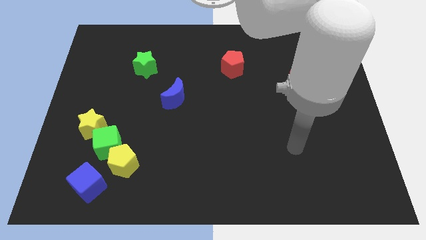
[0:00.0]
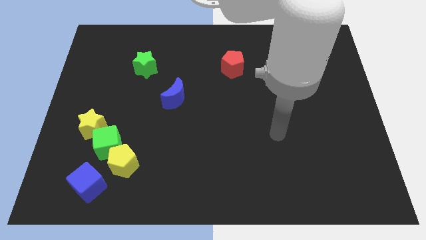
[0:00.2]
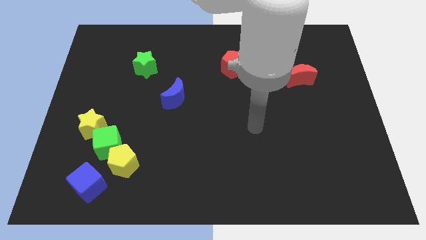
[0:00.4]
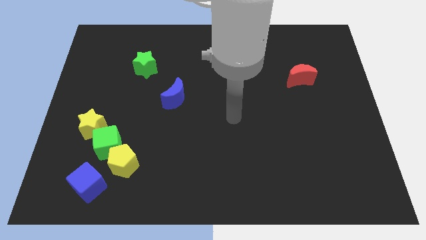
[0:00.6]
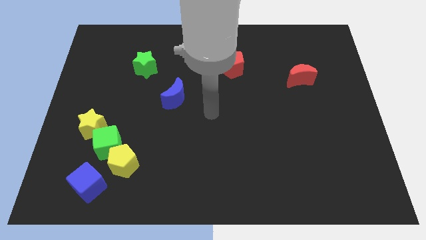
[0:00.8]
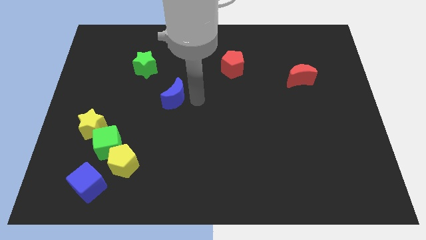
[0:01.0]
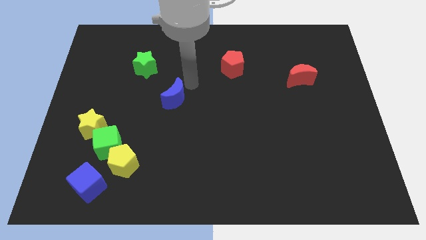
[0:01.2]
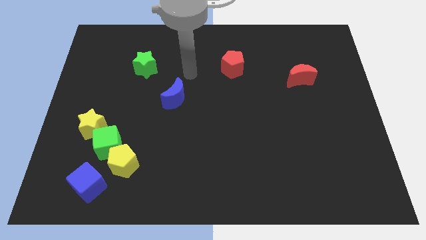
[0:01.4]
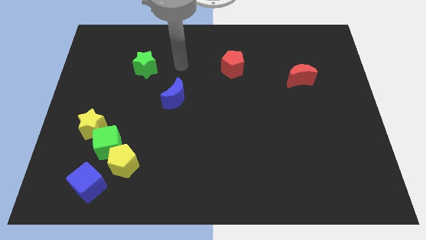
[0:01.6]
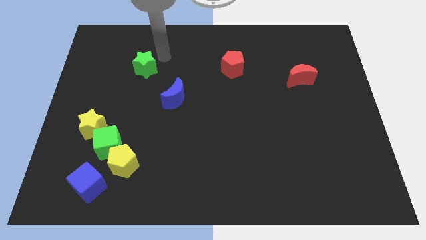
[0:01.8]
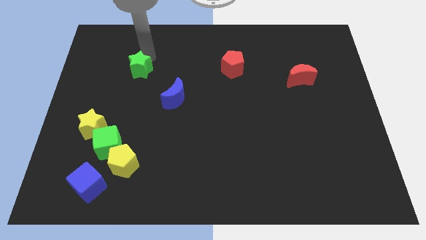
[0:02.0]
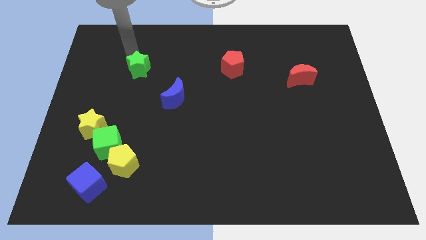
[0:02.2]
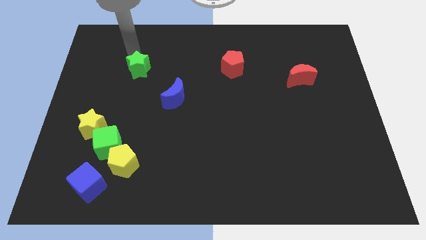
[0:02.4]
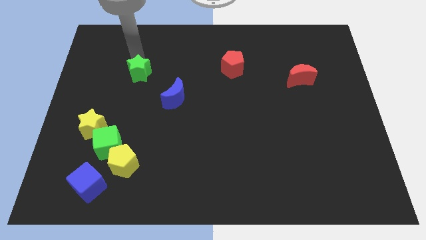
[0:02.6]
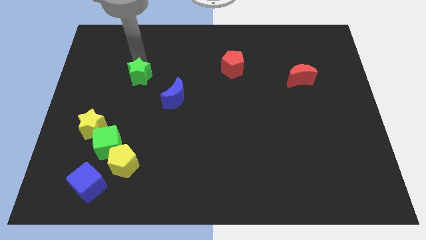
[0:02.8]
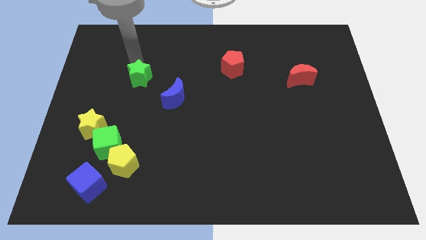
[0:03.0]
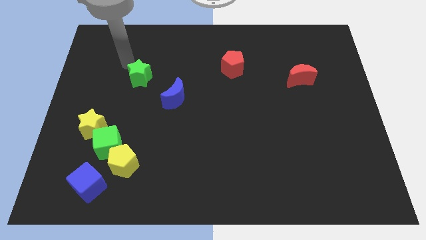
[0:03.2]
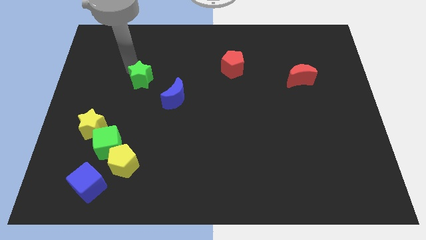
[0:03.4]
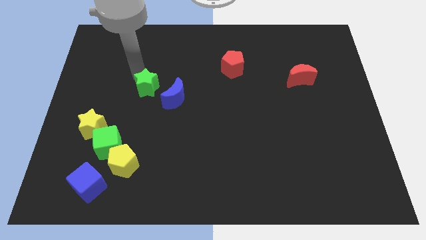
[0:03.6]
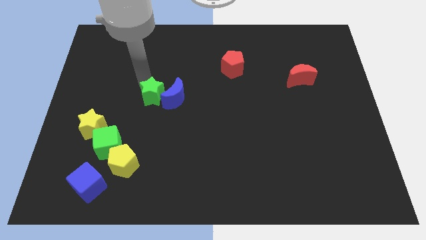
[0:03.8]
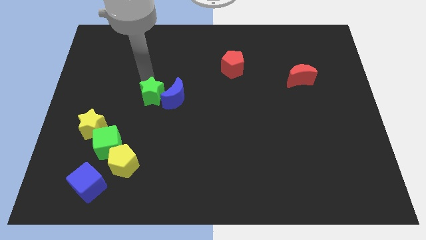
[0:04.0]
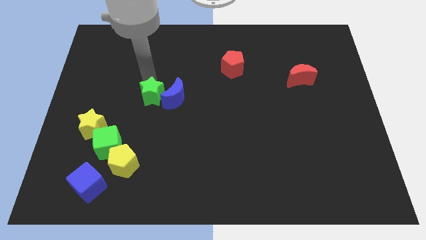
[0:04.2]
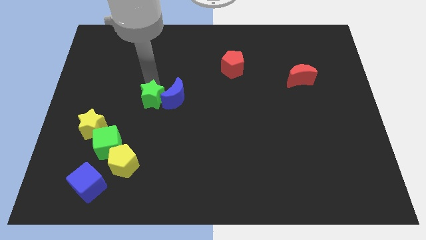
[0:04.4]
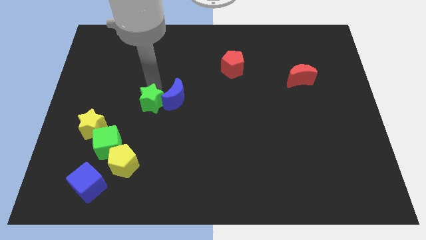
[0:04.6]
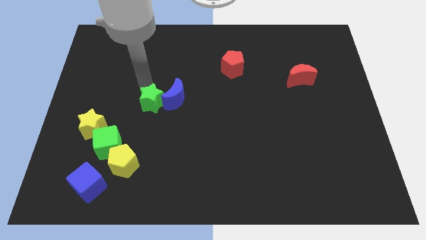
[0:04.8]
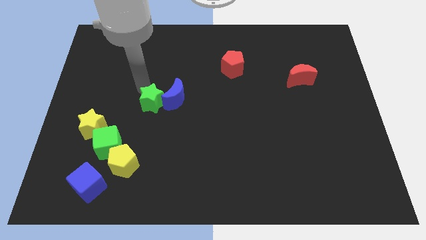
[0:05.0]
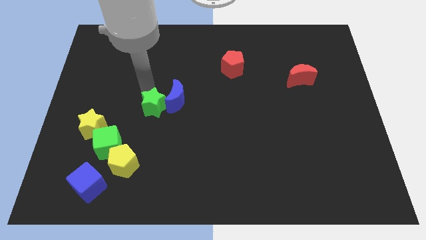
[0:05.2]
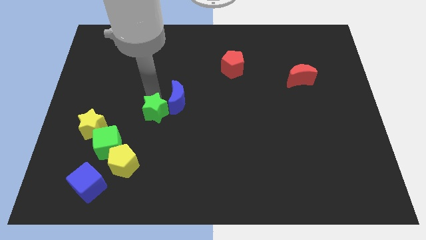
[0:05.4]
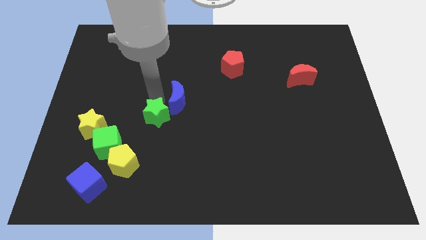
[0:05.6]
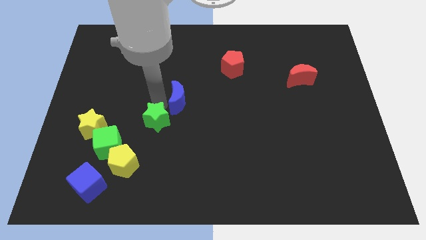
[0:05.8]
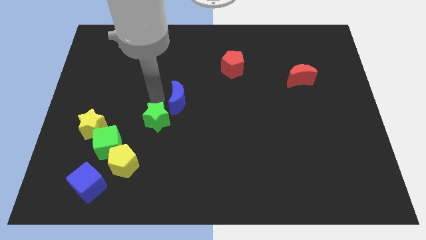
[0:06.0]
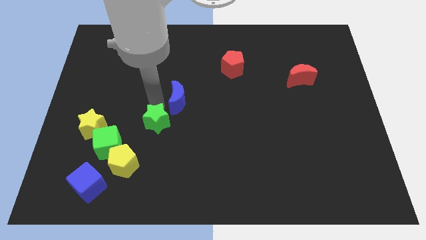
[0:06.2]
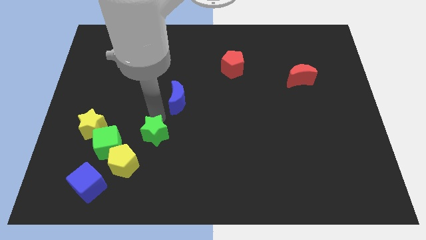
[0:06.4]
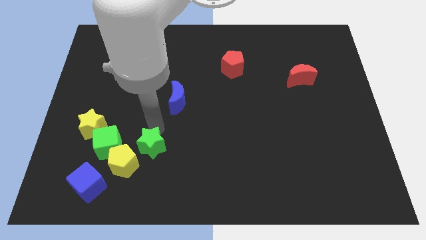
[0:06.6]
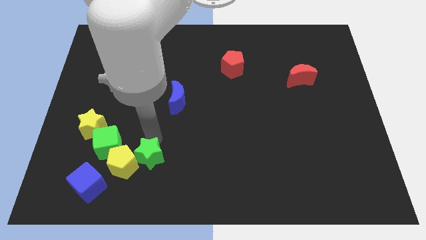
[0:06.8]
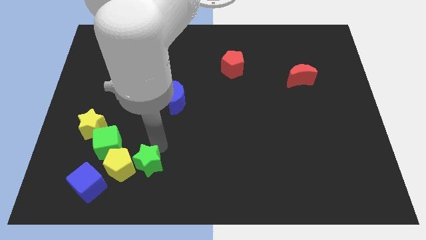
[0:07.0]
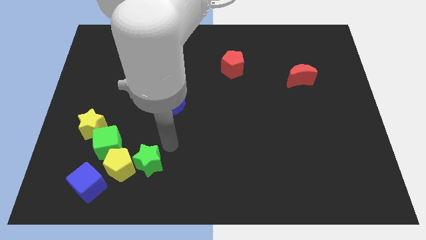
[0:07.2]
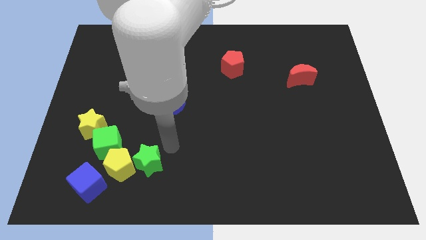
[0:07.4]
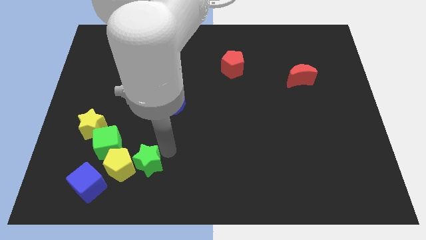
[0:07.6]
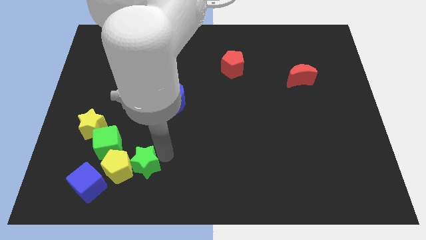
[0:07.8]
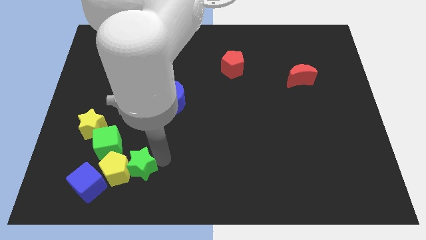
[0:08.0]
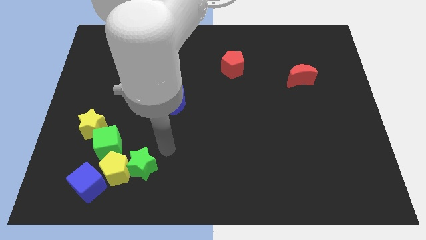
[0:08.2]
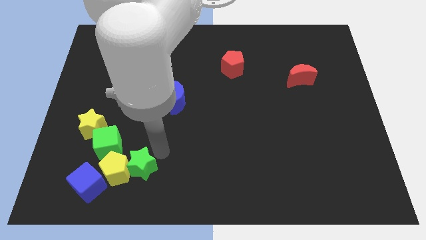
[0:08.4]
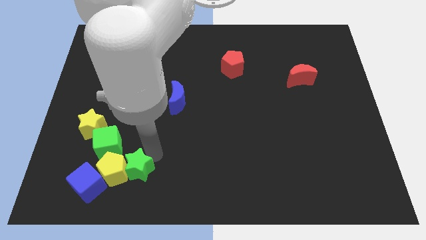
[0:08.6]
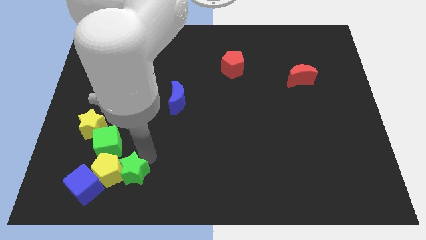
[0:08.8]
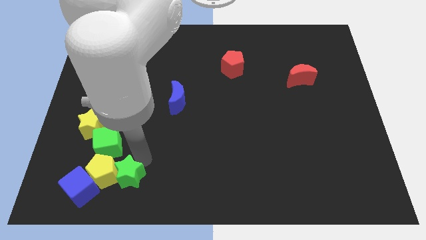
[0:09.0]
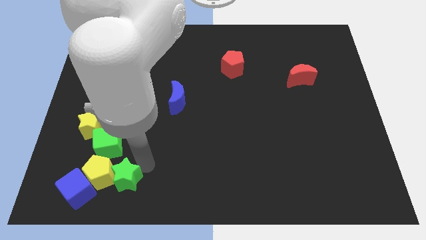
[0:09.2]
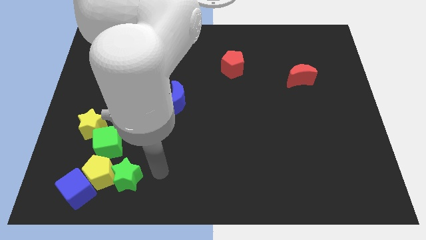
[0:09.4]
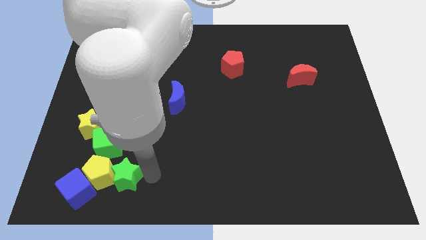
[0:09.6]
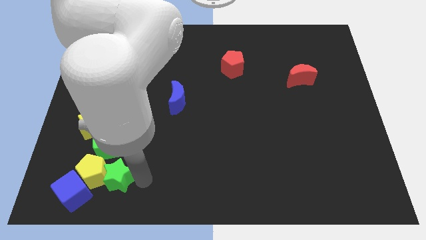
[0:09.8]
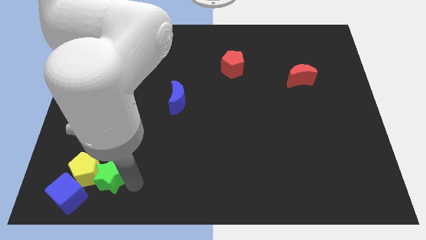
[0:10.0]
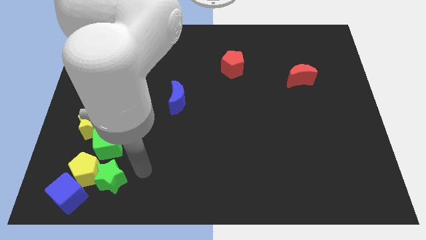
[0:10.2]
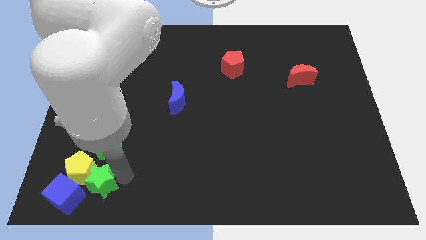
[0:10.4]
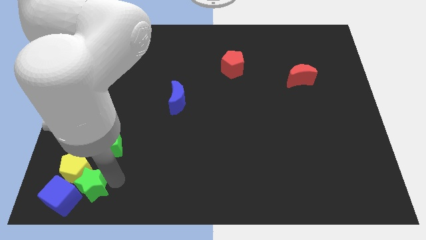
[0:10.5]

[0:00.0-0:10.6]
move the green star to the blue cube

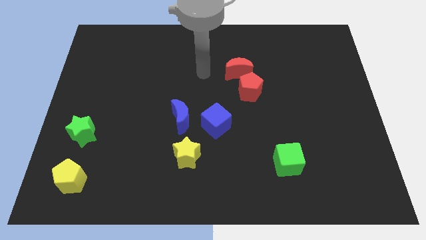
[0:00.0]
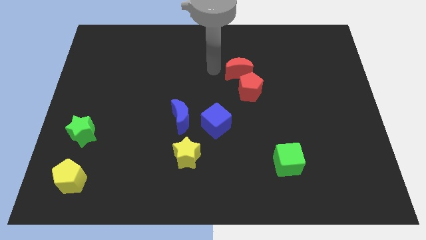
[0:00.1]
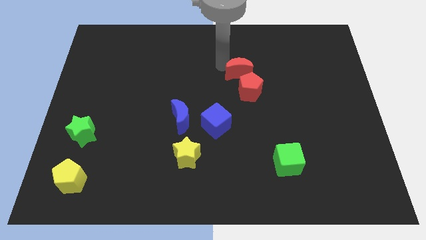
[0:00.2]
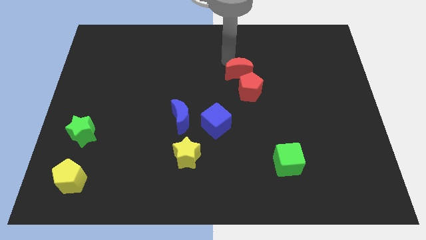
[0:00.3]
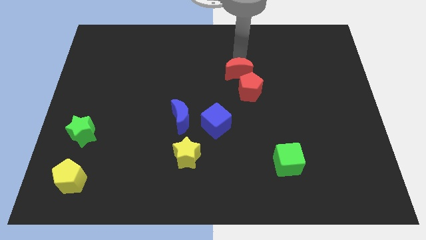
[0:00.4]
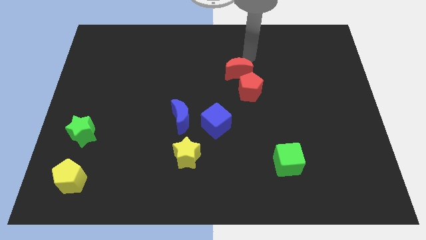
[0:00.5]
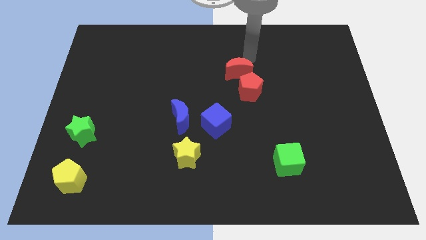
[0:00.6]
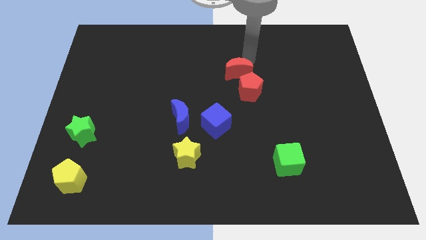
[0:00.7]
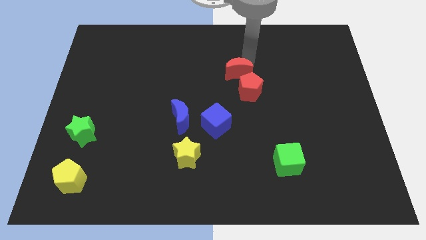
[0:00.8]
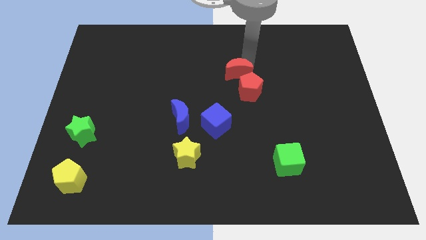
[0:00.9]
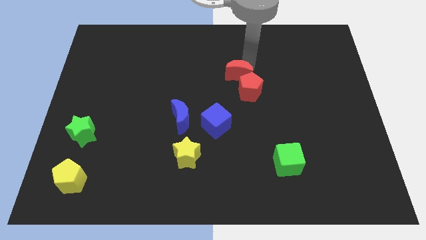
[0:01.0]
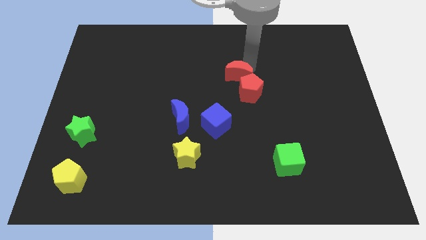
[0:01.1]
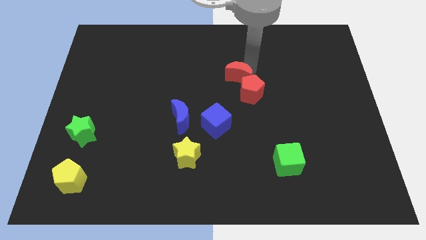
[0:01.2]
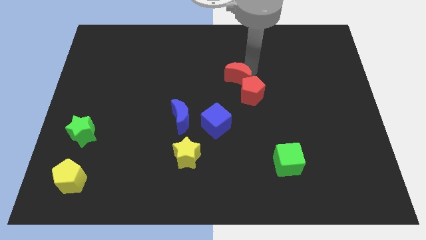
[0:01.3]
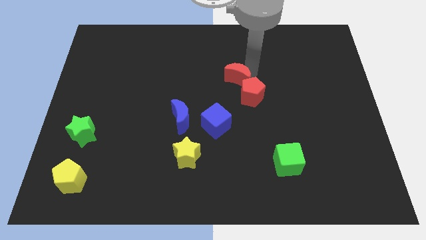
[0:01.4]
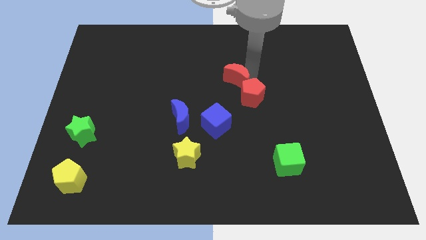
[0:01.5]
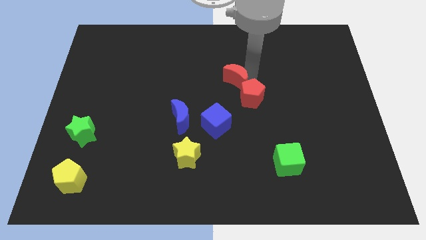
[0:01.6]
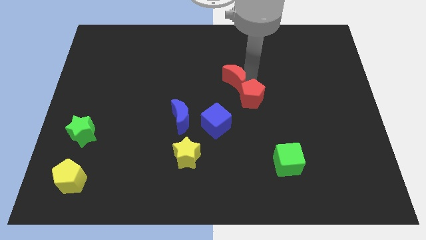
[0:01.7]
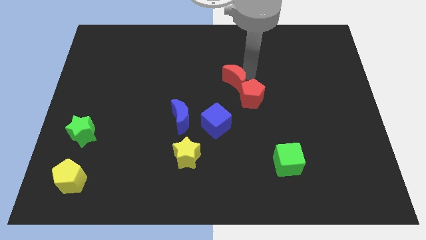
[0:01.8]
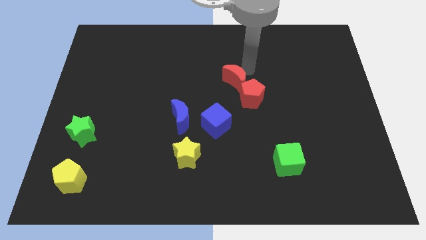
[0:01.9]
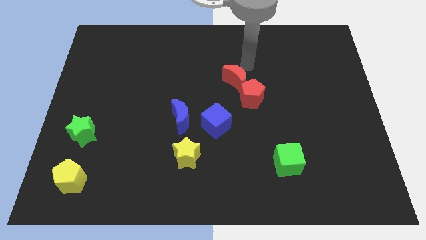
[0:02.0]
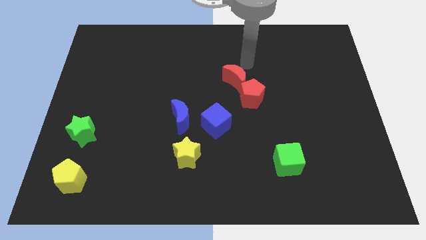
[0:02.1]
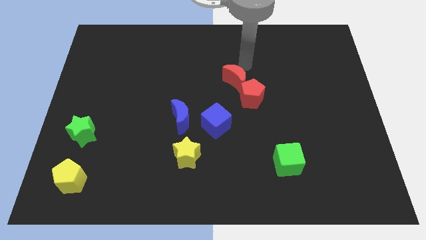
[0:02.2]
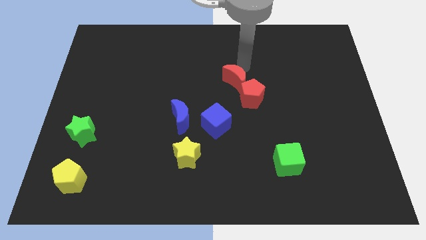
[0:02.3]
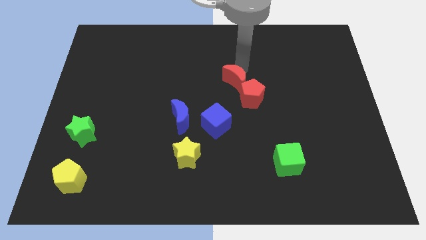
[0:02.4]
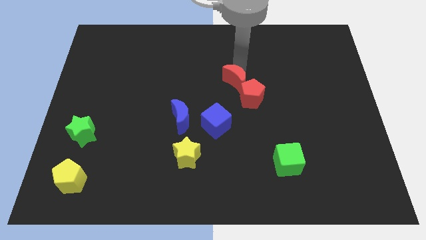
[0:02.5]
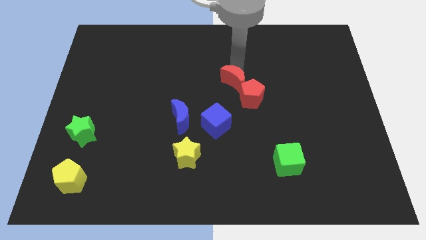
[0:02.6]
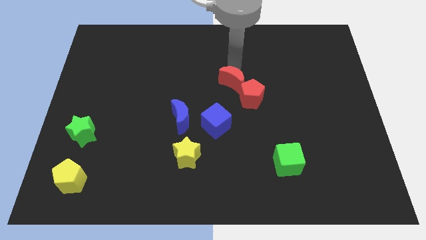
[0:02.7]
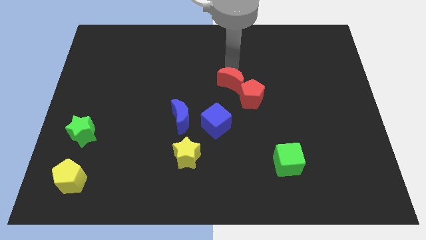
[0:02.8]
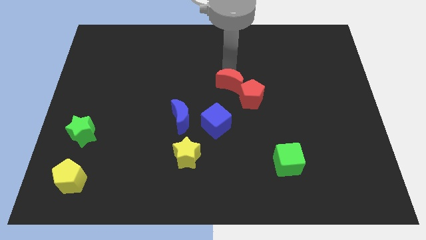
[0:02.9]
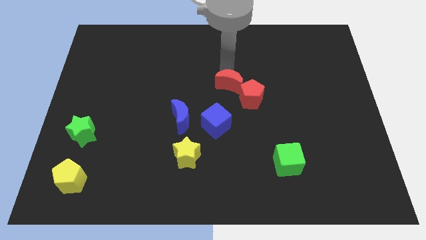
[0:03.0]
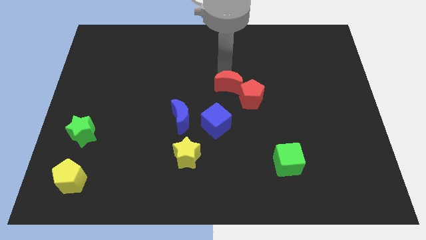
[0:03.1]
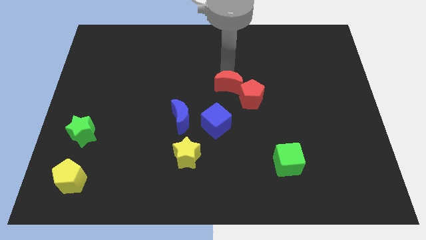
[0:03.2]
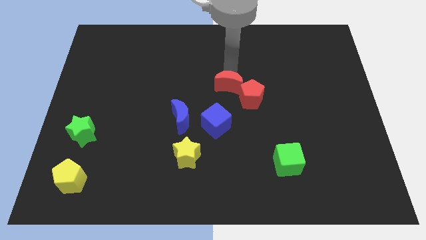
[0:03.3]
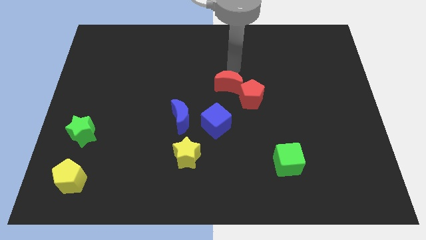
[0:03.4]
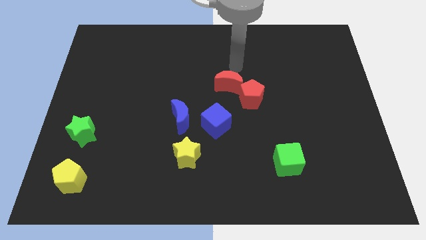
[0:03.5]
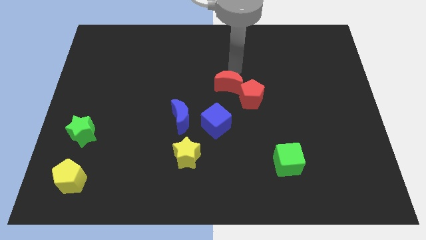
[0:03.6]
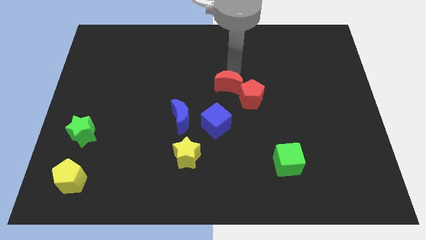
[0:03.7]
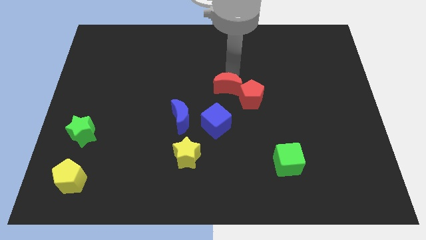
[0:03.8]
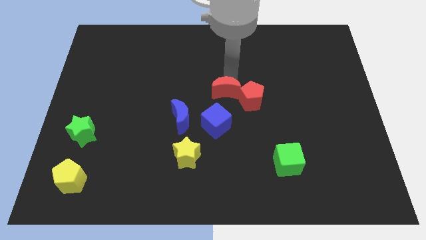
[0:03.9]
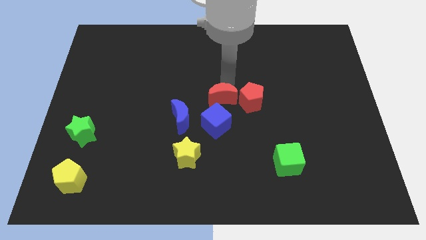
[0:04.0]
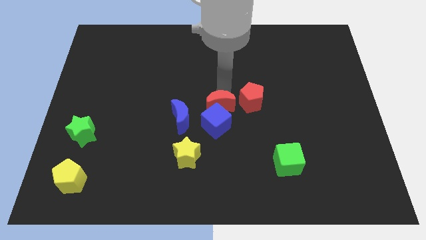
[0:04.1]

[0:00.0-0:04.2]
slide the red moon close to the blue cube
